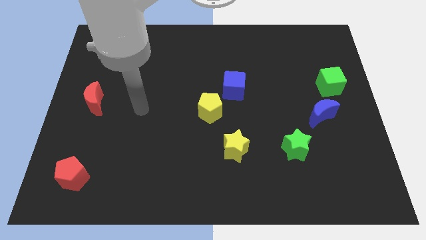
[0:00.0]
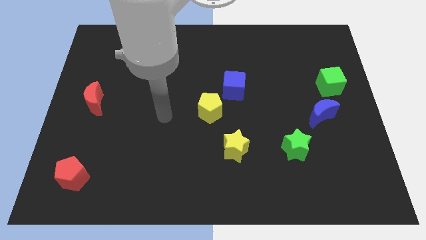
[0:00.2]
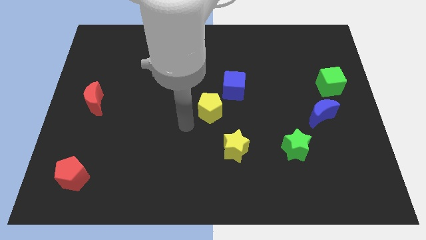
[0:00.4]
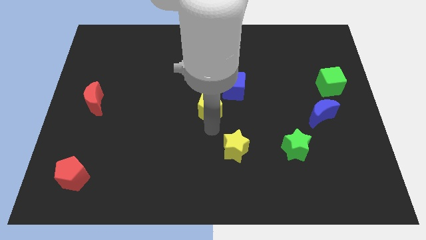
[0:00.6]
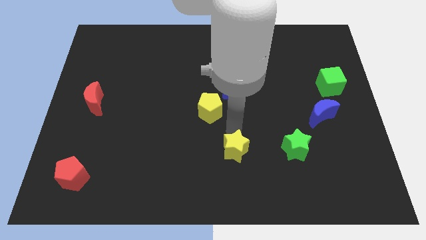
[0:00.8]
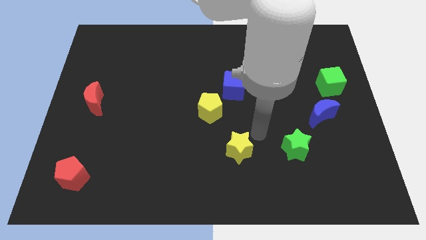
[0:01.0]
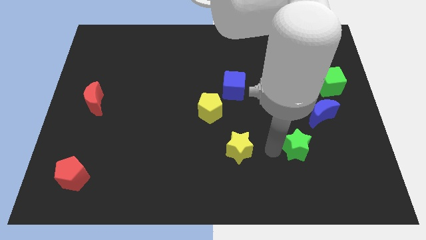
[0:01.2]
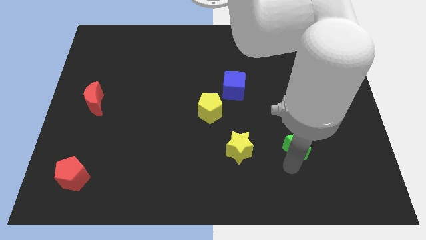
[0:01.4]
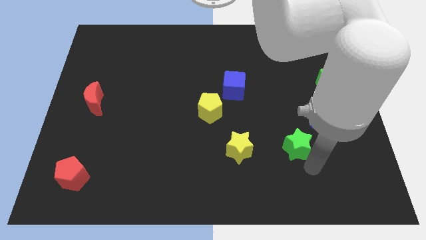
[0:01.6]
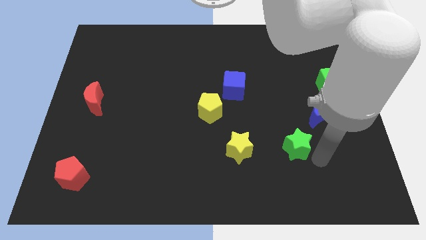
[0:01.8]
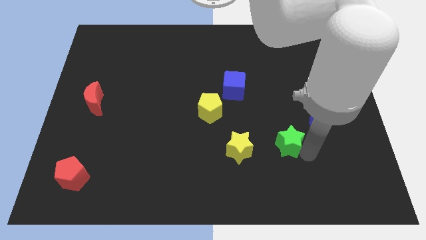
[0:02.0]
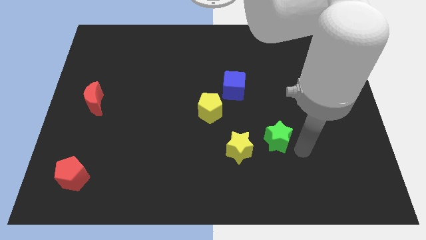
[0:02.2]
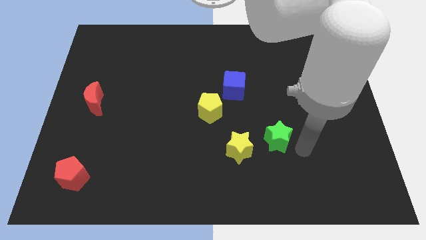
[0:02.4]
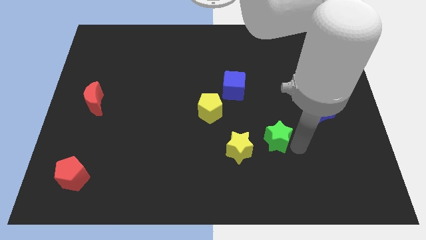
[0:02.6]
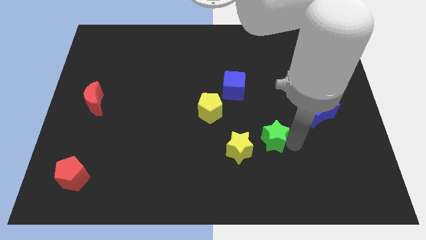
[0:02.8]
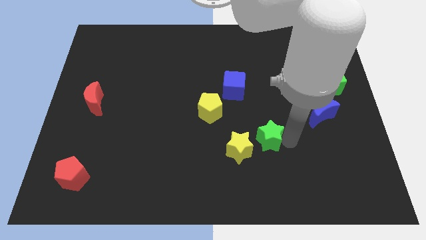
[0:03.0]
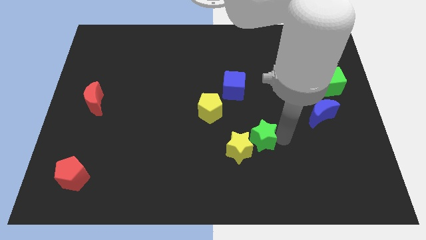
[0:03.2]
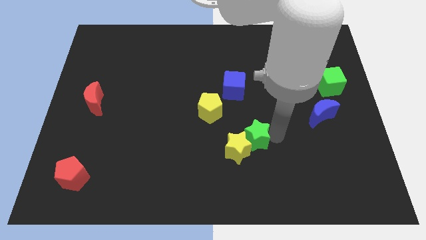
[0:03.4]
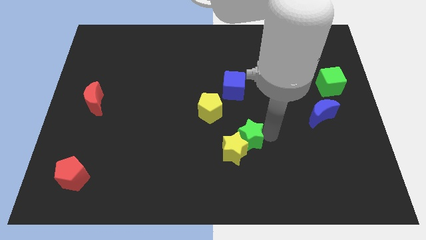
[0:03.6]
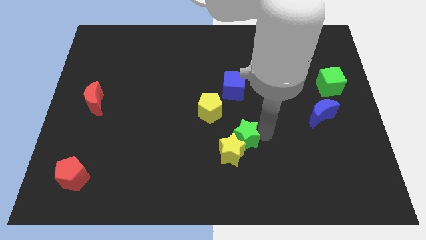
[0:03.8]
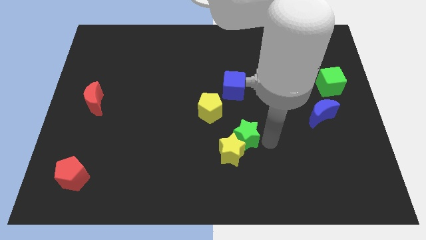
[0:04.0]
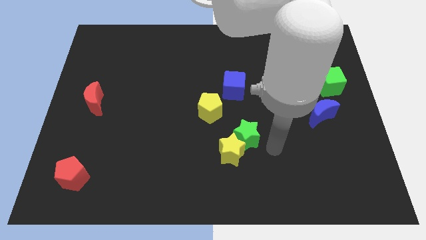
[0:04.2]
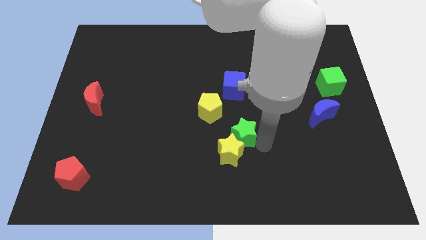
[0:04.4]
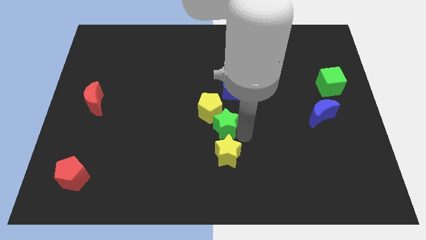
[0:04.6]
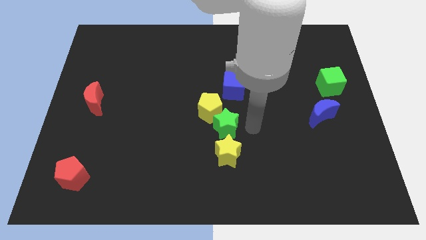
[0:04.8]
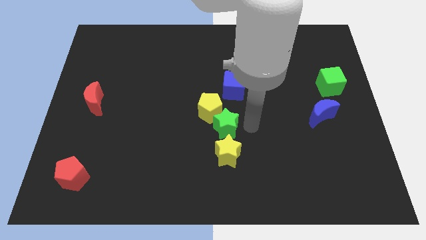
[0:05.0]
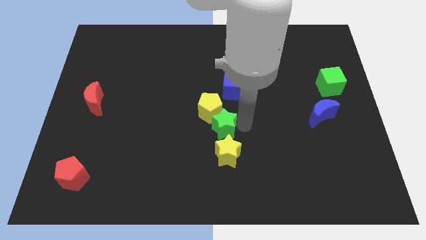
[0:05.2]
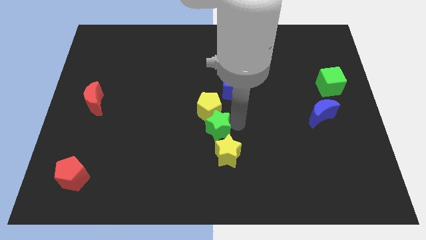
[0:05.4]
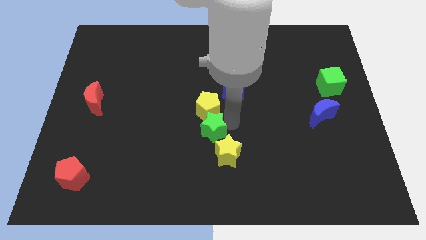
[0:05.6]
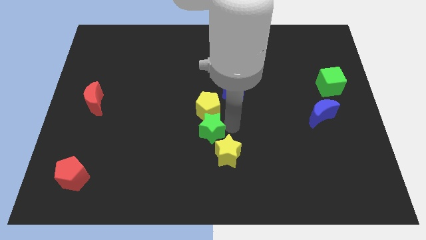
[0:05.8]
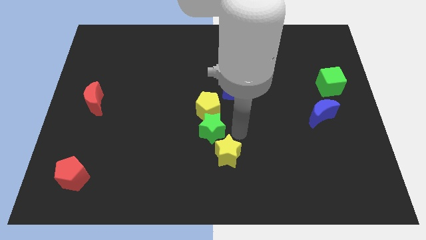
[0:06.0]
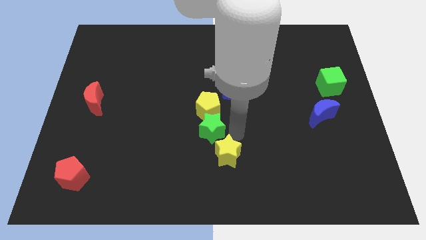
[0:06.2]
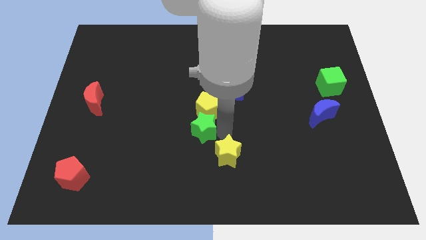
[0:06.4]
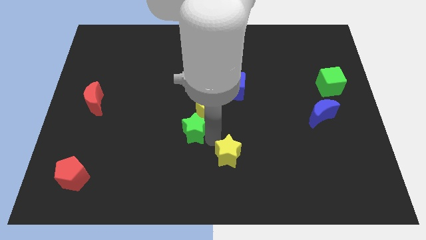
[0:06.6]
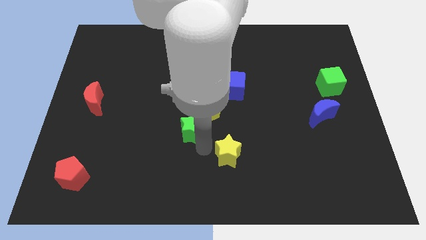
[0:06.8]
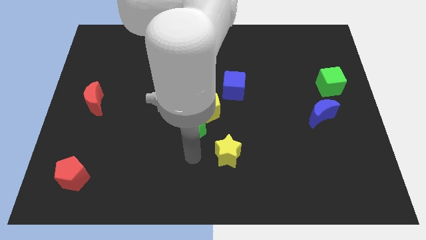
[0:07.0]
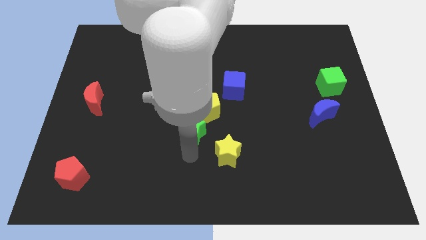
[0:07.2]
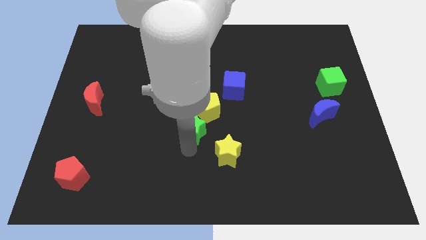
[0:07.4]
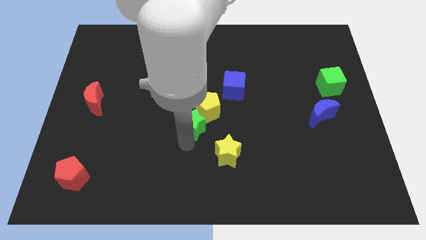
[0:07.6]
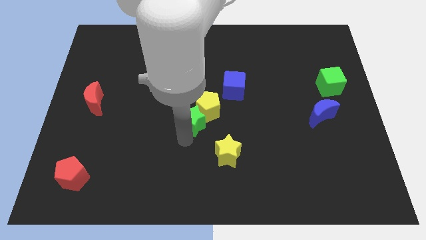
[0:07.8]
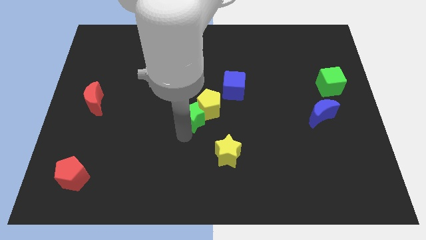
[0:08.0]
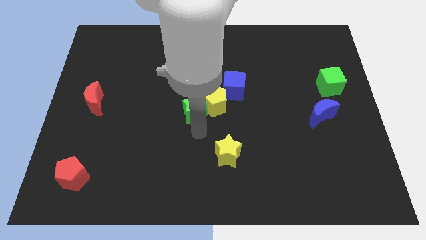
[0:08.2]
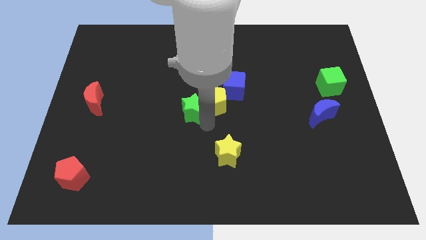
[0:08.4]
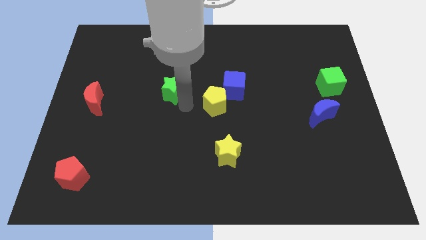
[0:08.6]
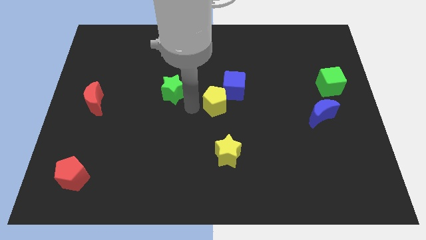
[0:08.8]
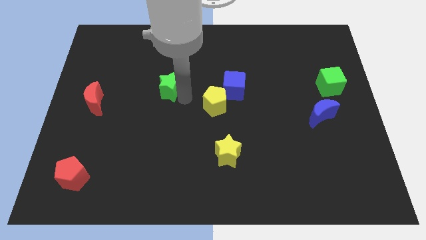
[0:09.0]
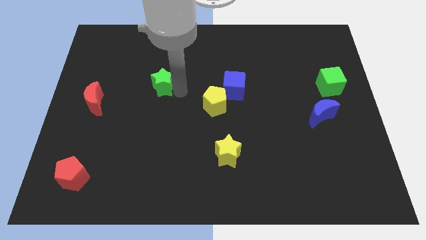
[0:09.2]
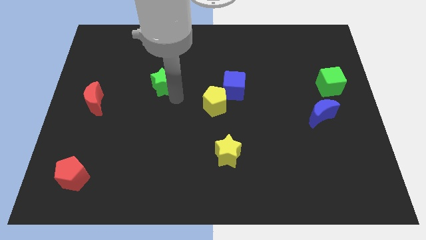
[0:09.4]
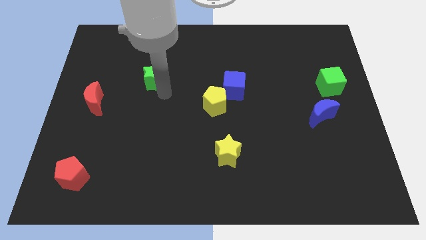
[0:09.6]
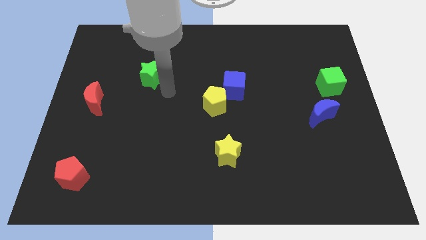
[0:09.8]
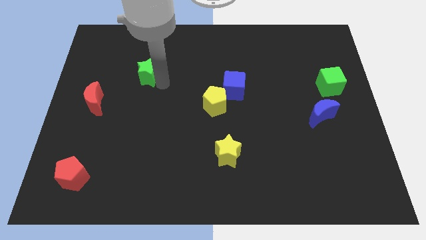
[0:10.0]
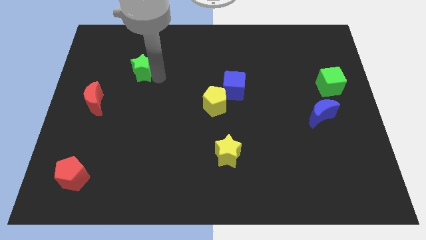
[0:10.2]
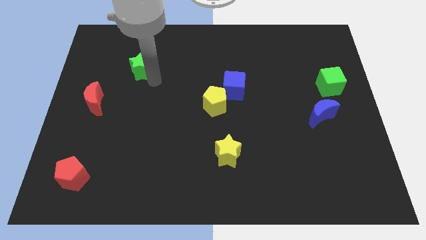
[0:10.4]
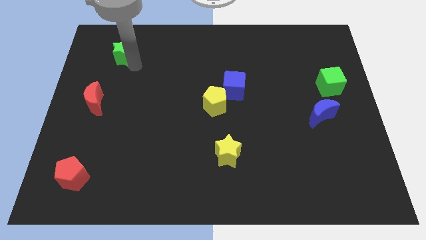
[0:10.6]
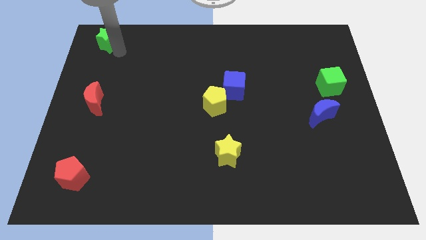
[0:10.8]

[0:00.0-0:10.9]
move the green star to the top left of the board

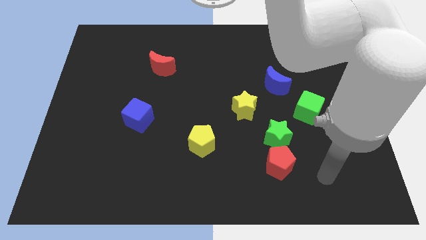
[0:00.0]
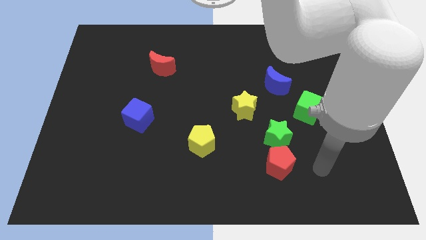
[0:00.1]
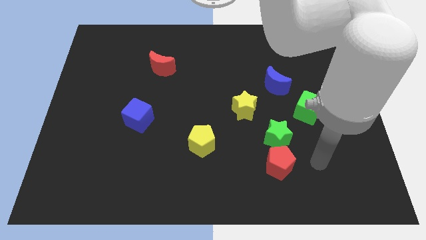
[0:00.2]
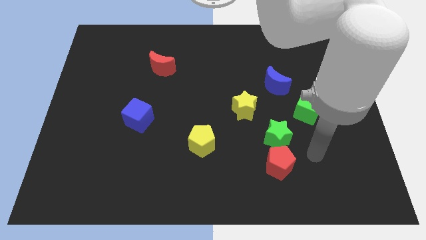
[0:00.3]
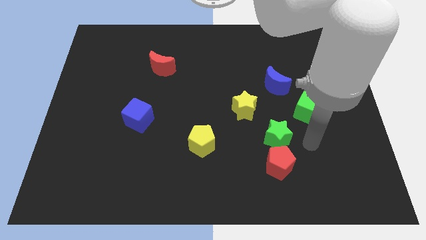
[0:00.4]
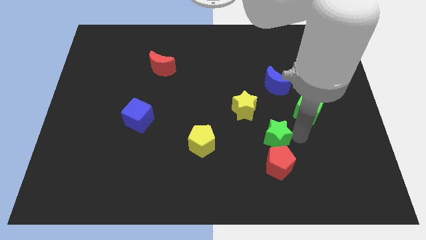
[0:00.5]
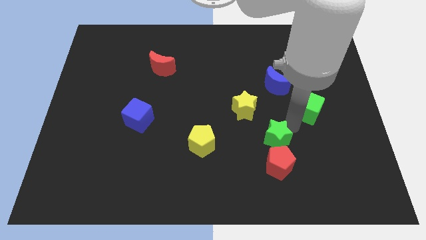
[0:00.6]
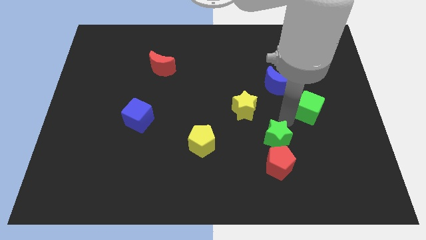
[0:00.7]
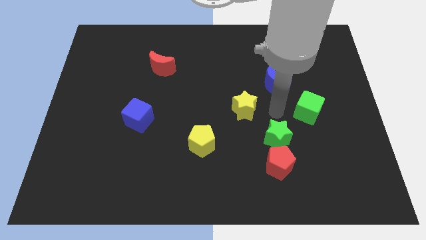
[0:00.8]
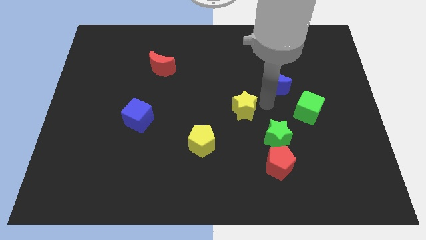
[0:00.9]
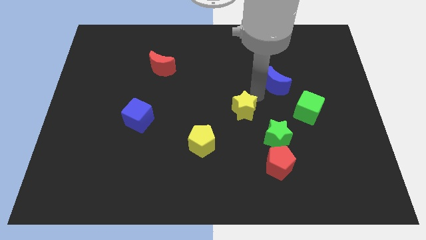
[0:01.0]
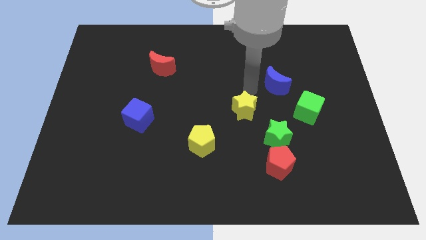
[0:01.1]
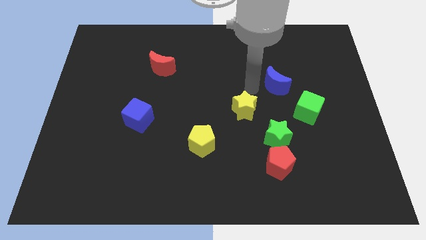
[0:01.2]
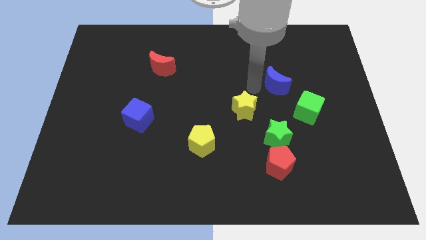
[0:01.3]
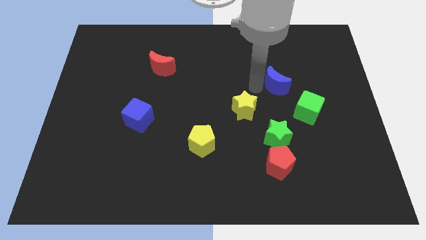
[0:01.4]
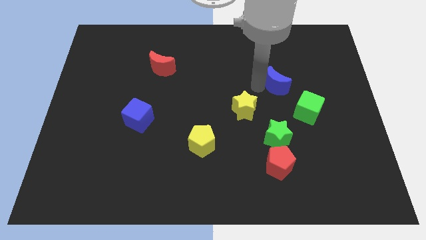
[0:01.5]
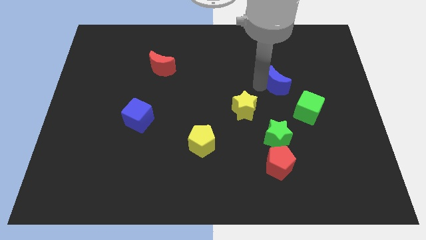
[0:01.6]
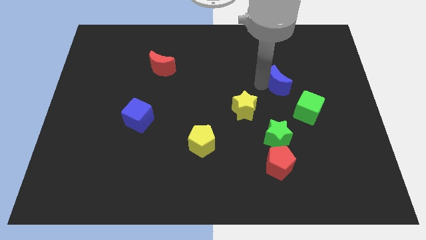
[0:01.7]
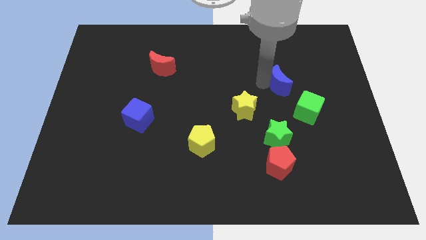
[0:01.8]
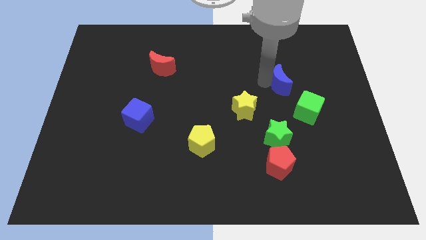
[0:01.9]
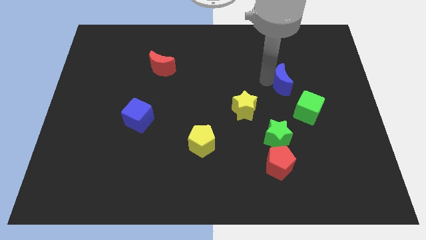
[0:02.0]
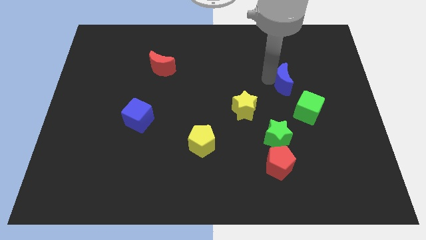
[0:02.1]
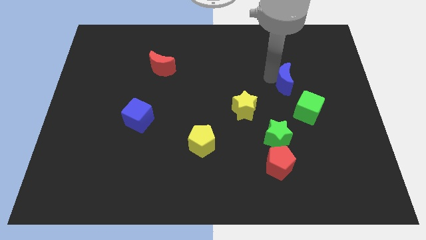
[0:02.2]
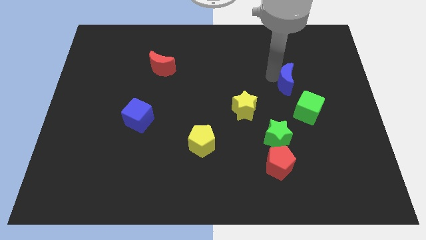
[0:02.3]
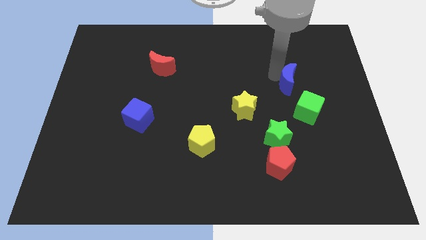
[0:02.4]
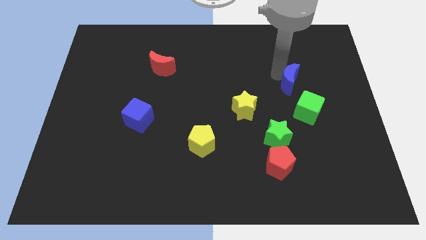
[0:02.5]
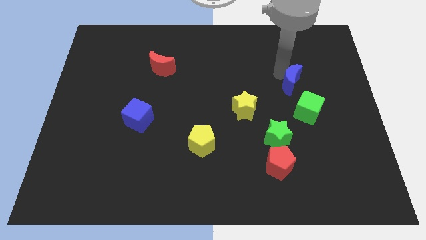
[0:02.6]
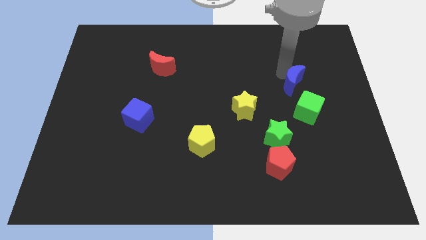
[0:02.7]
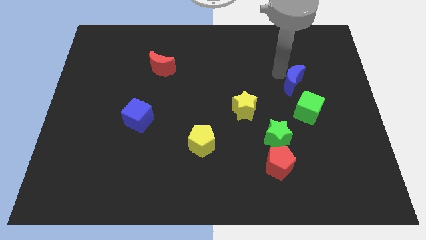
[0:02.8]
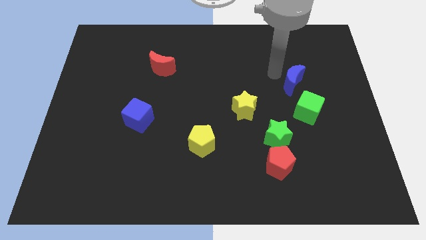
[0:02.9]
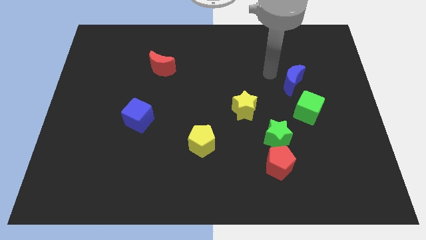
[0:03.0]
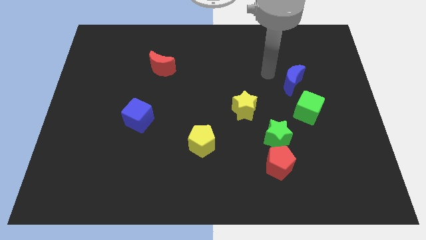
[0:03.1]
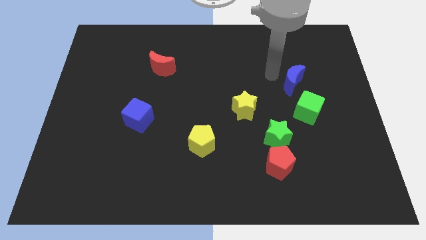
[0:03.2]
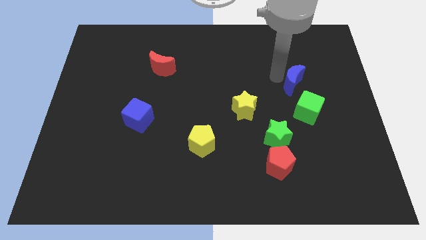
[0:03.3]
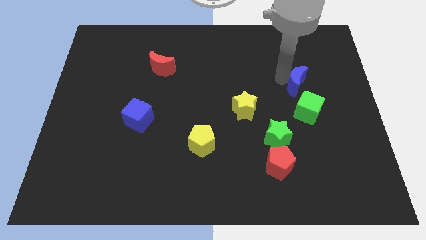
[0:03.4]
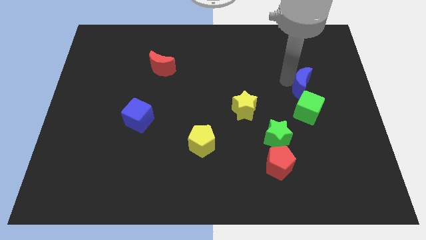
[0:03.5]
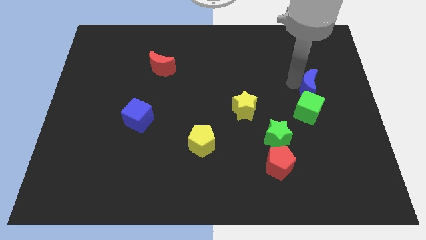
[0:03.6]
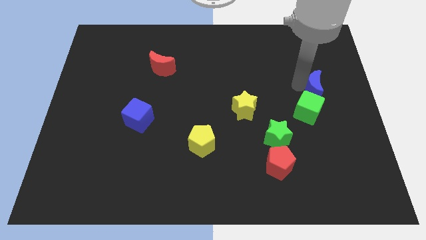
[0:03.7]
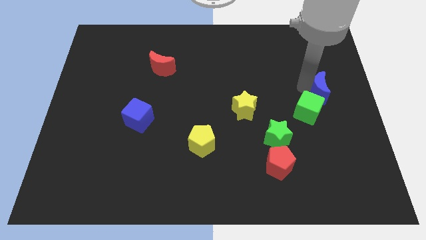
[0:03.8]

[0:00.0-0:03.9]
move the blue moon to the right side
